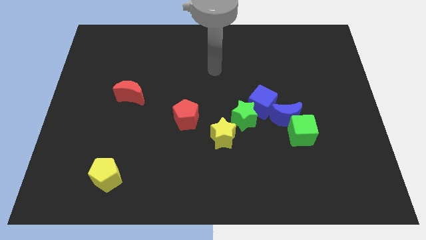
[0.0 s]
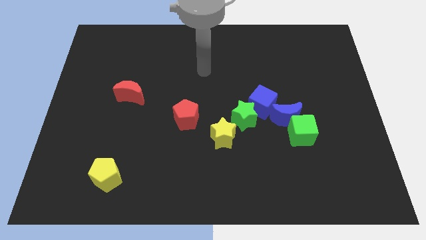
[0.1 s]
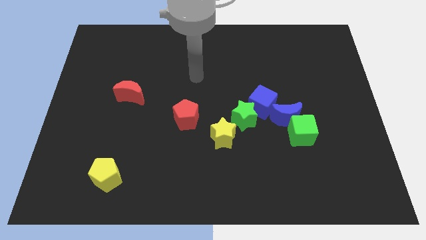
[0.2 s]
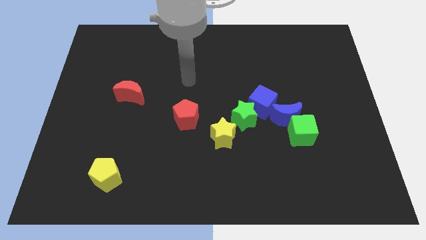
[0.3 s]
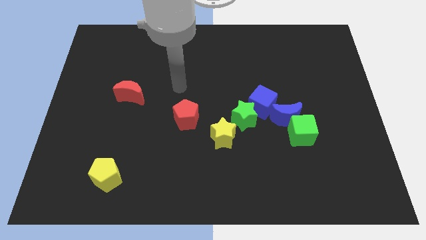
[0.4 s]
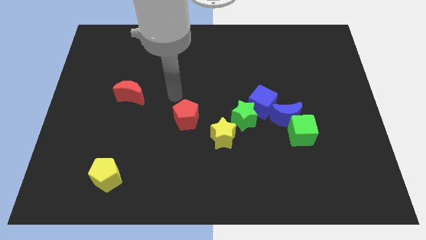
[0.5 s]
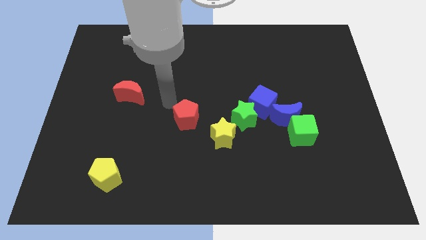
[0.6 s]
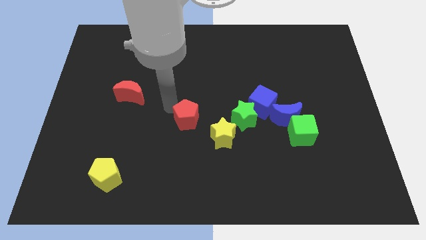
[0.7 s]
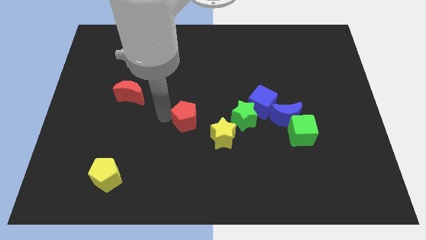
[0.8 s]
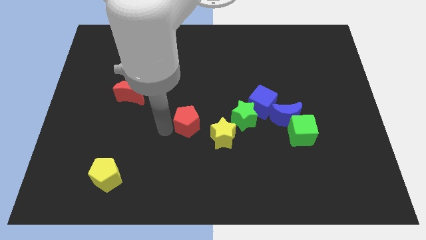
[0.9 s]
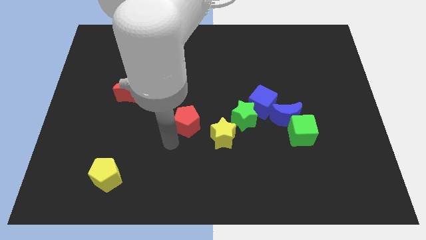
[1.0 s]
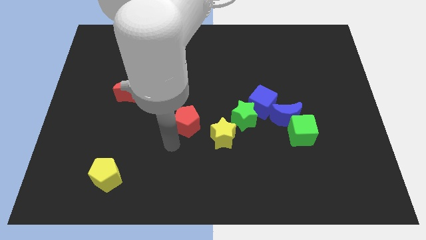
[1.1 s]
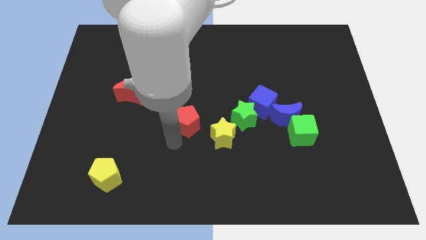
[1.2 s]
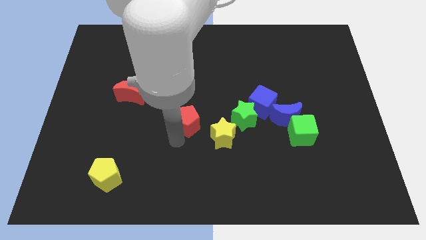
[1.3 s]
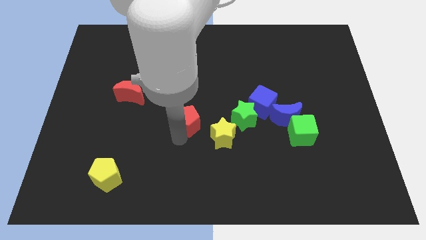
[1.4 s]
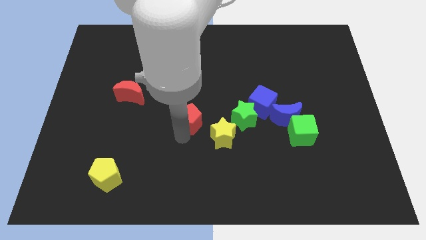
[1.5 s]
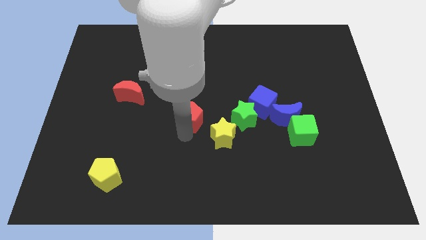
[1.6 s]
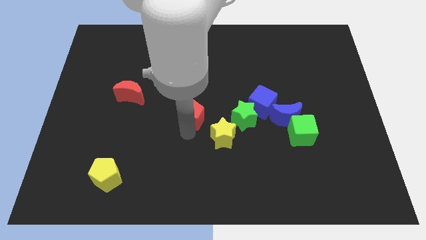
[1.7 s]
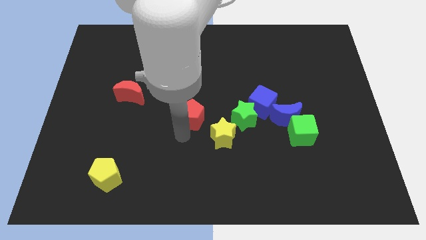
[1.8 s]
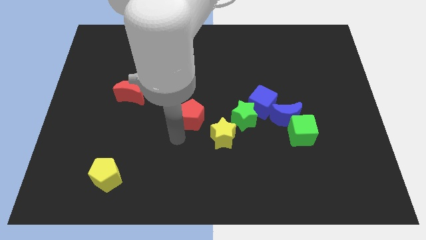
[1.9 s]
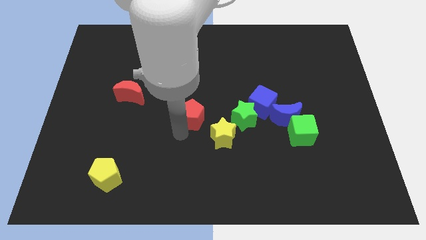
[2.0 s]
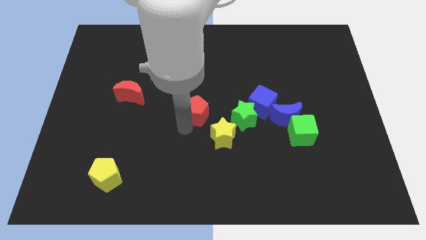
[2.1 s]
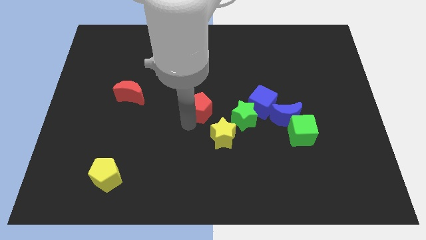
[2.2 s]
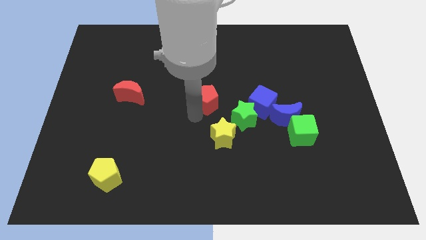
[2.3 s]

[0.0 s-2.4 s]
push the red pentagon up and right somewhat

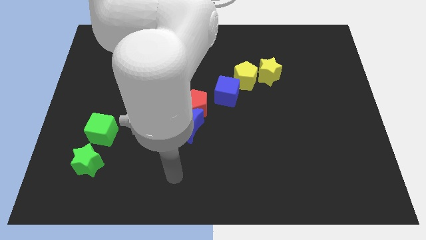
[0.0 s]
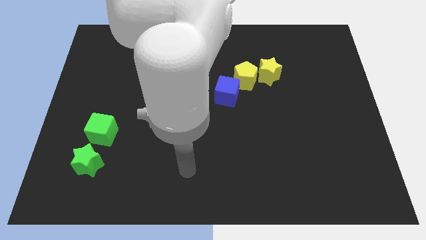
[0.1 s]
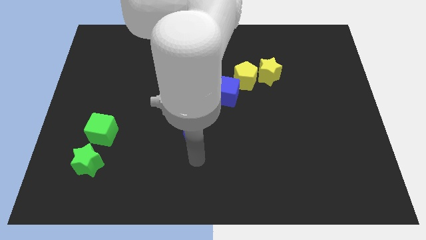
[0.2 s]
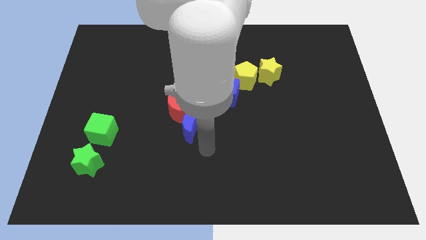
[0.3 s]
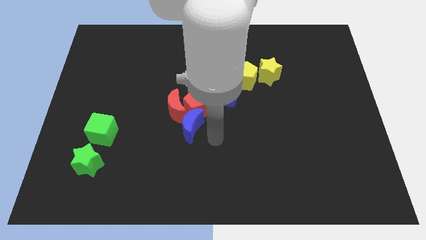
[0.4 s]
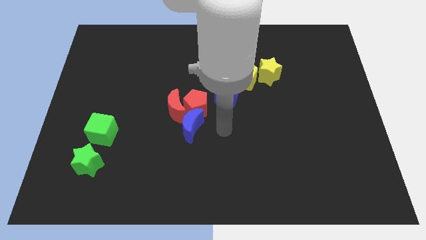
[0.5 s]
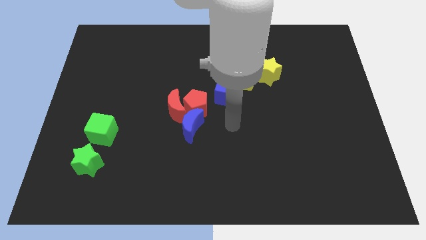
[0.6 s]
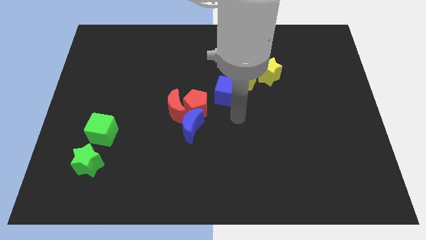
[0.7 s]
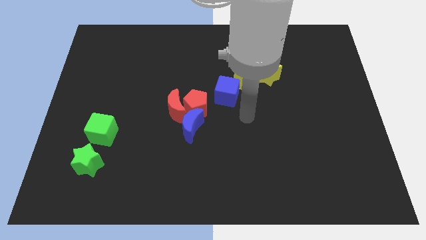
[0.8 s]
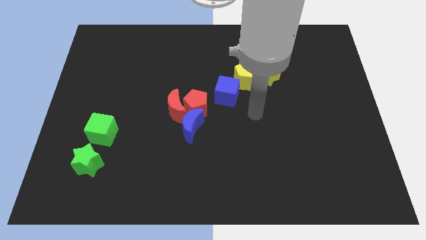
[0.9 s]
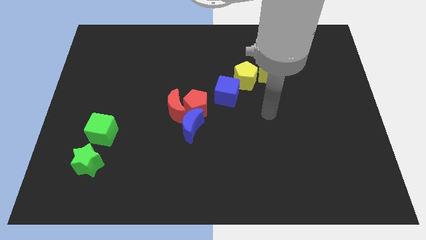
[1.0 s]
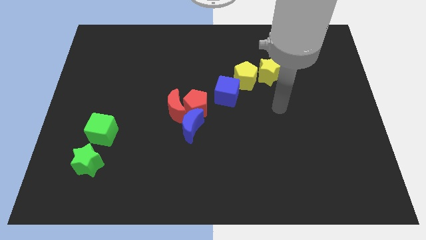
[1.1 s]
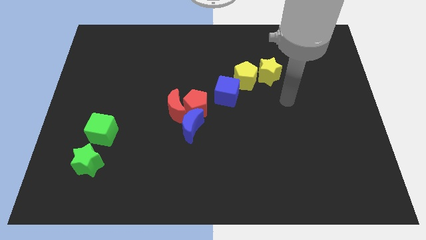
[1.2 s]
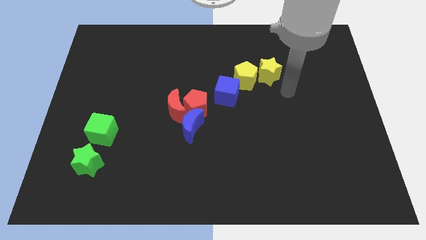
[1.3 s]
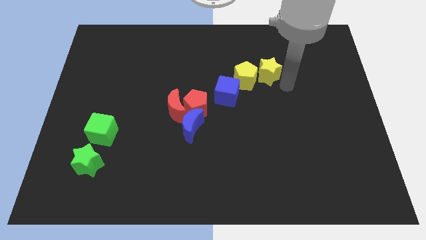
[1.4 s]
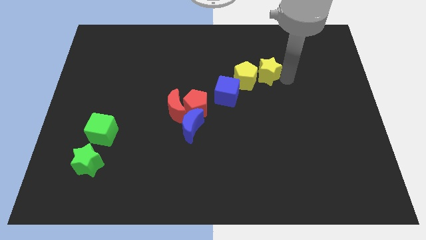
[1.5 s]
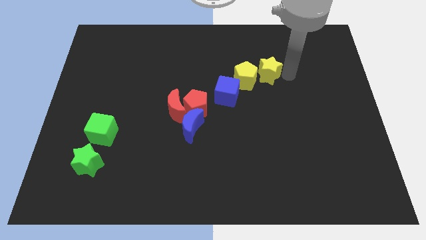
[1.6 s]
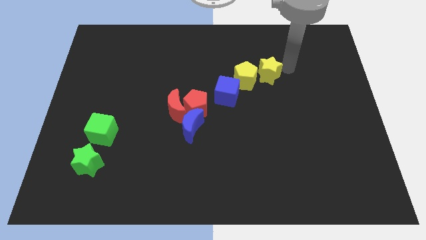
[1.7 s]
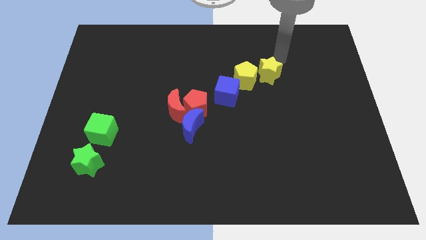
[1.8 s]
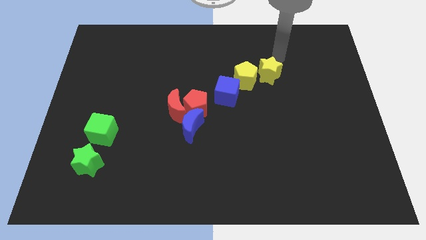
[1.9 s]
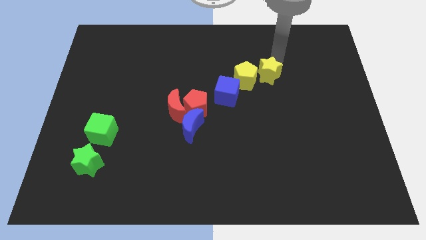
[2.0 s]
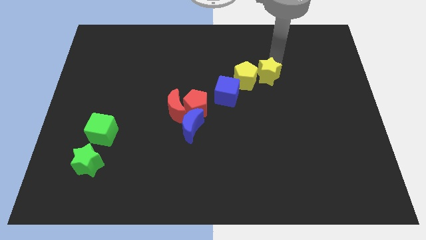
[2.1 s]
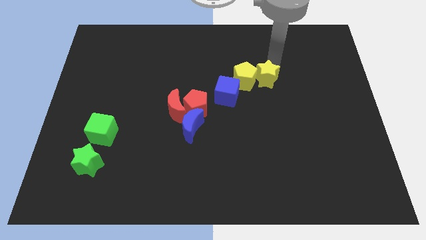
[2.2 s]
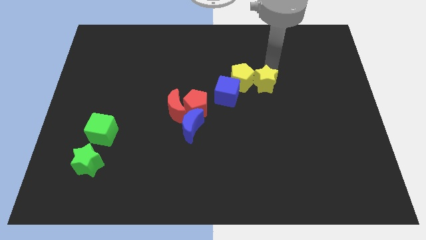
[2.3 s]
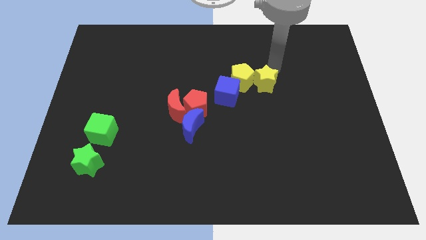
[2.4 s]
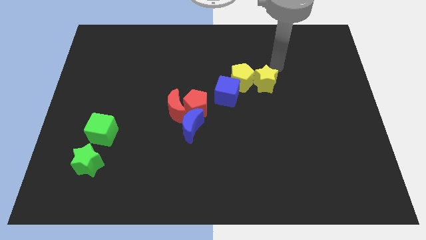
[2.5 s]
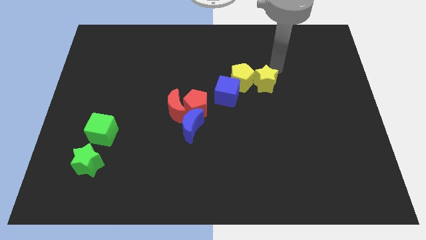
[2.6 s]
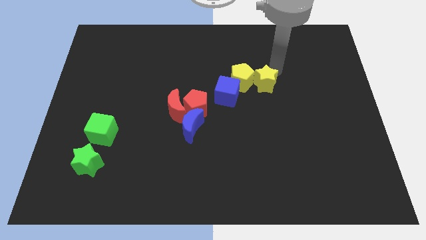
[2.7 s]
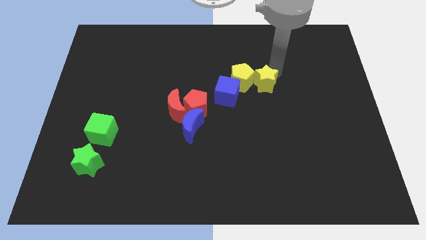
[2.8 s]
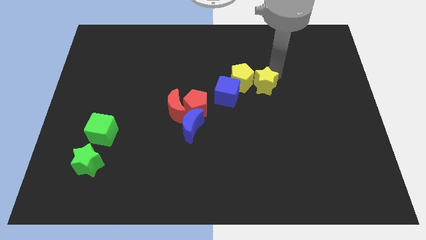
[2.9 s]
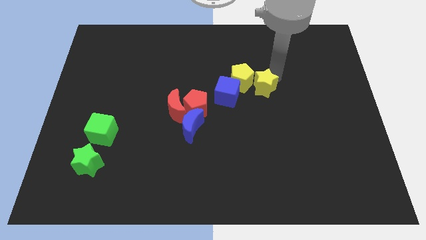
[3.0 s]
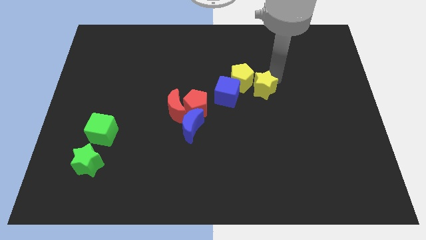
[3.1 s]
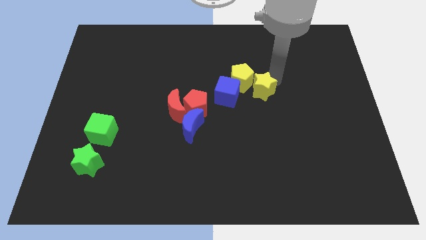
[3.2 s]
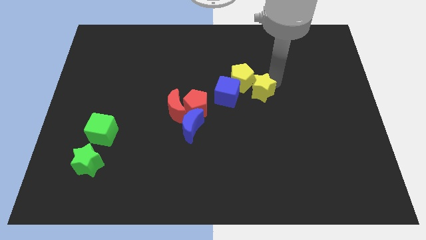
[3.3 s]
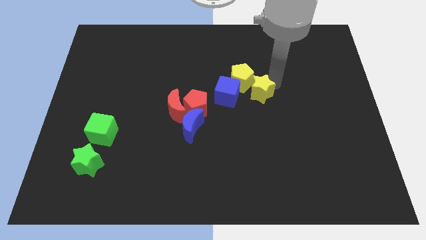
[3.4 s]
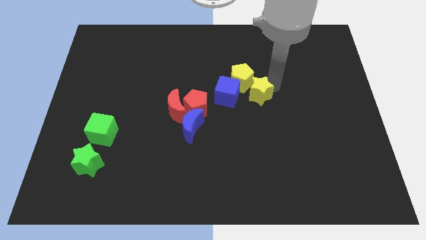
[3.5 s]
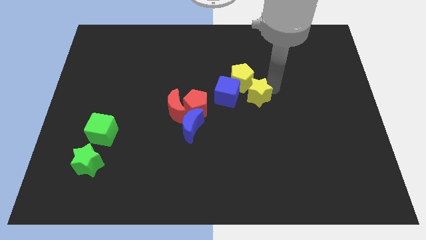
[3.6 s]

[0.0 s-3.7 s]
slightly slide the yellow star diagonally down and left

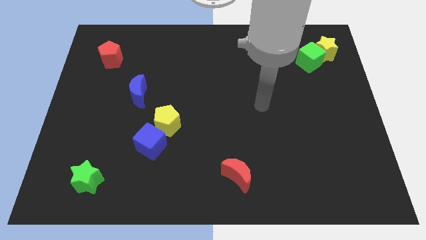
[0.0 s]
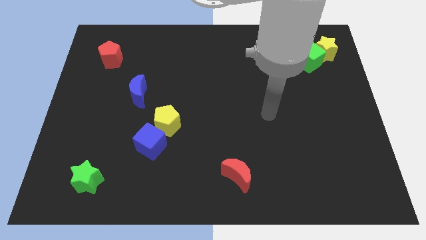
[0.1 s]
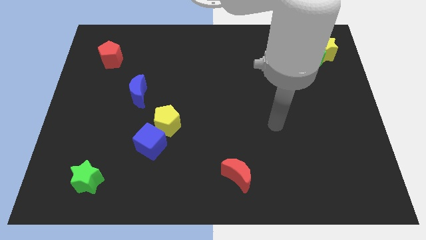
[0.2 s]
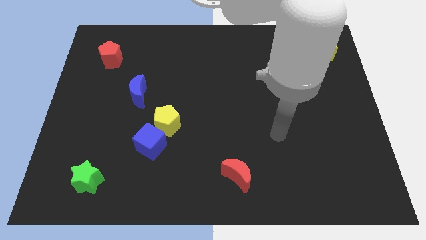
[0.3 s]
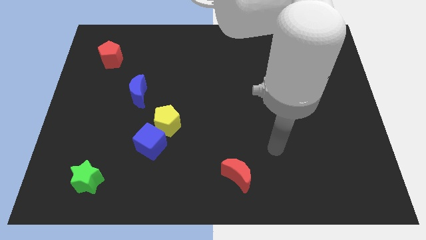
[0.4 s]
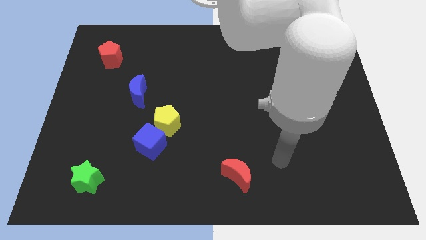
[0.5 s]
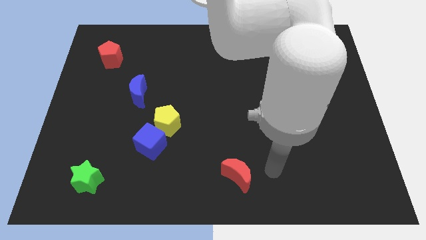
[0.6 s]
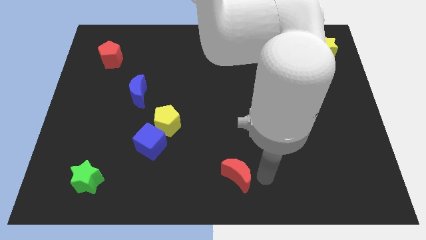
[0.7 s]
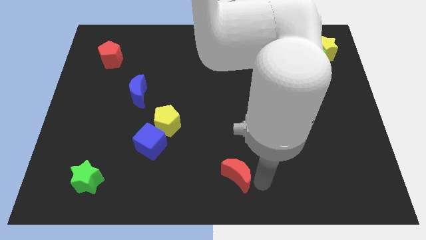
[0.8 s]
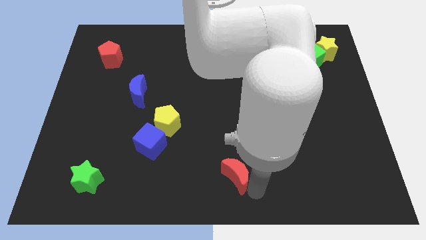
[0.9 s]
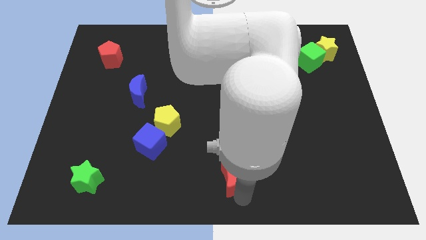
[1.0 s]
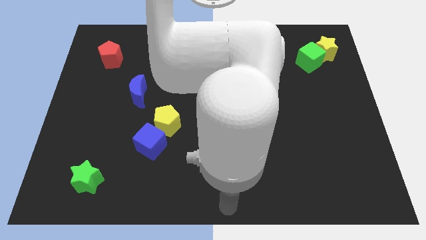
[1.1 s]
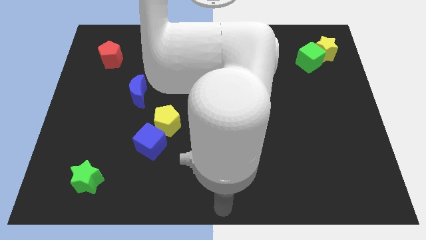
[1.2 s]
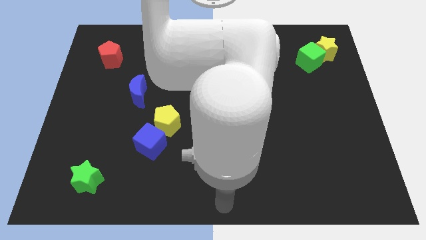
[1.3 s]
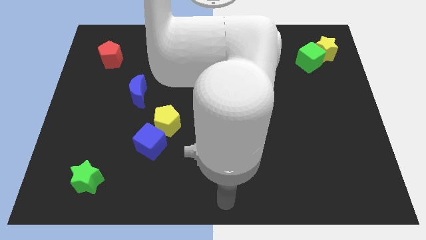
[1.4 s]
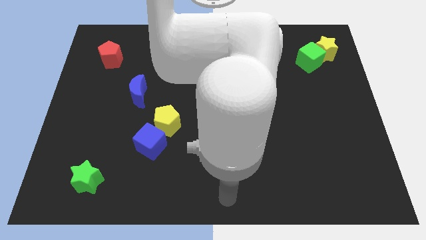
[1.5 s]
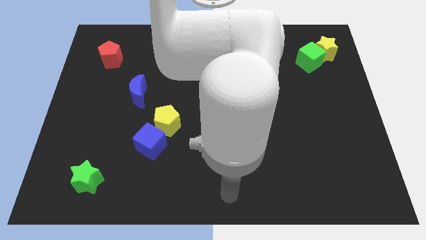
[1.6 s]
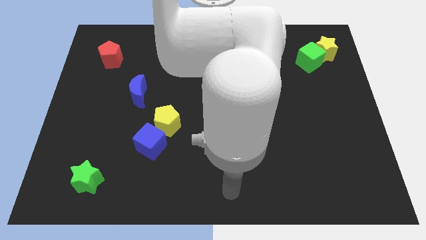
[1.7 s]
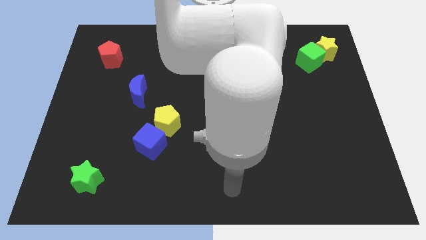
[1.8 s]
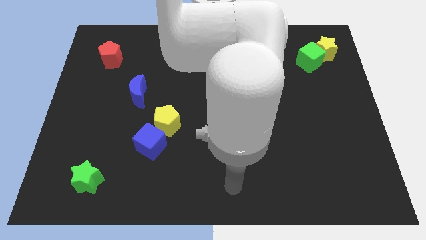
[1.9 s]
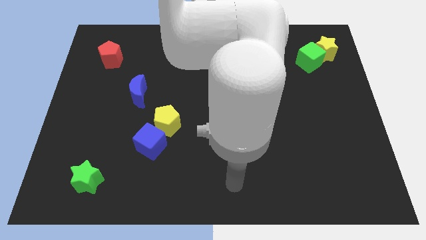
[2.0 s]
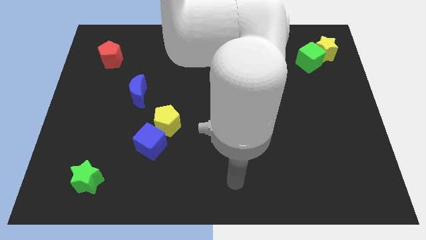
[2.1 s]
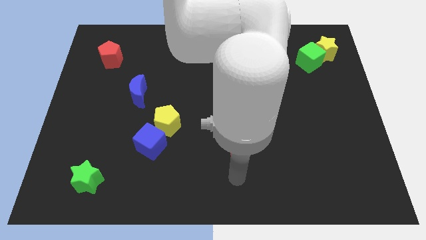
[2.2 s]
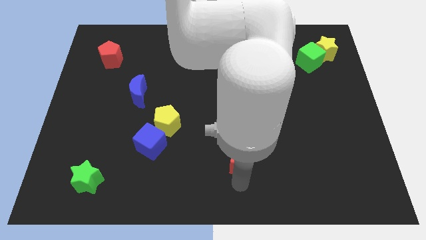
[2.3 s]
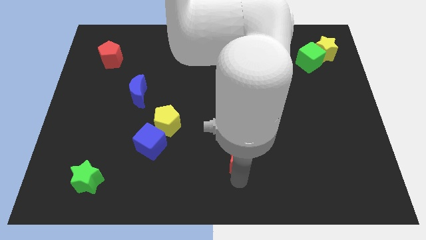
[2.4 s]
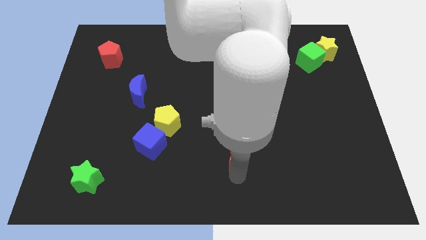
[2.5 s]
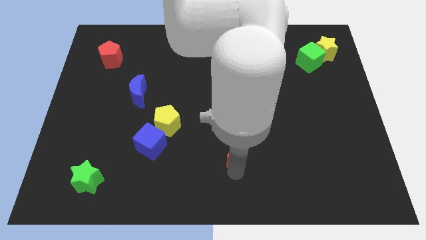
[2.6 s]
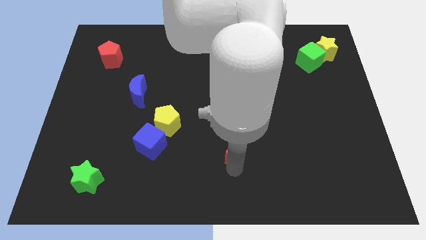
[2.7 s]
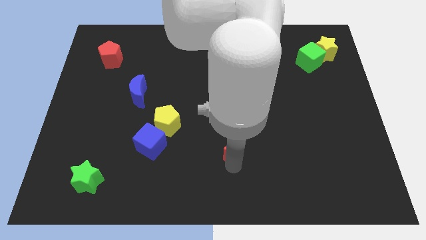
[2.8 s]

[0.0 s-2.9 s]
slightly move the red moon up
